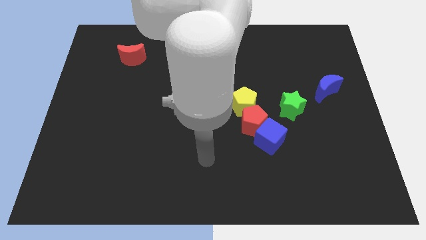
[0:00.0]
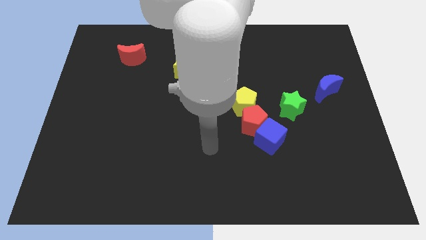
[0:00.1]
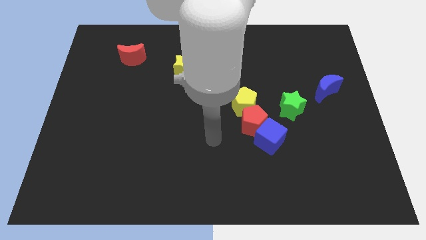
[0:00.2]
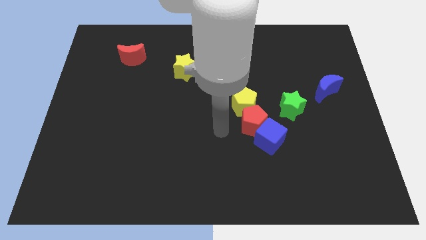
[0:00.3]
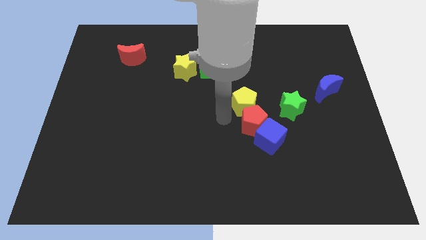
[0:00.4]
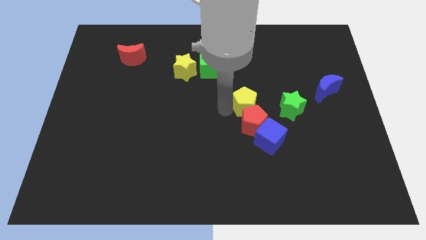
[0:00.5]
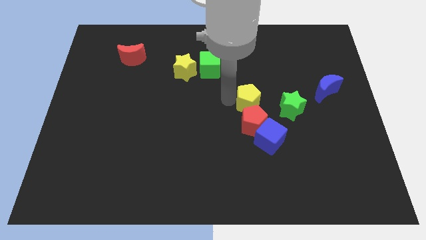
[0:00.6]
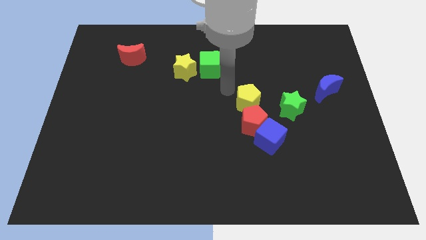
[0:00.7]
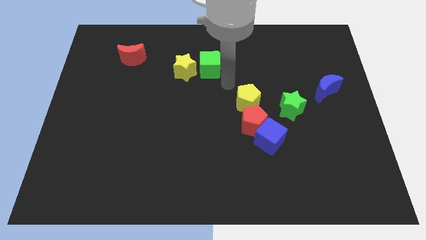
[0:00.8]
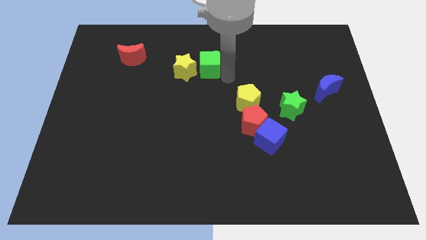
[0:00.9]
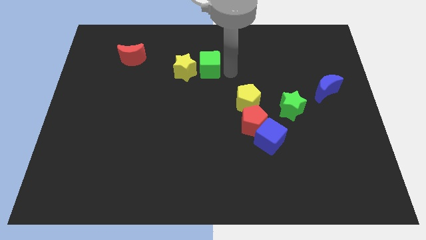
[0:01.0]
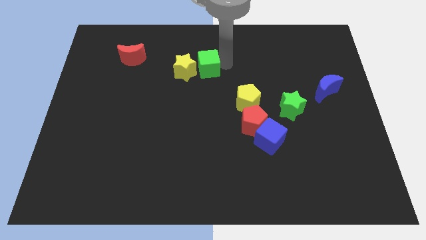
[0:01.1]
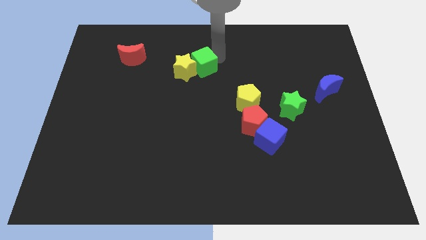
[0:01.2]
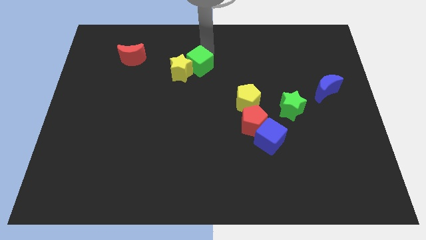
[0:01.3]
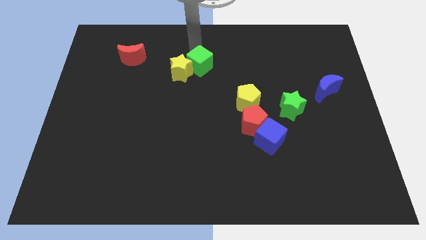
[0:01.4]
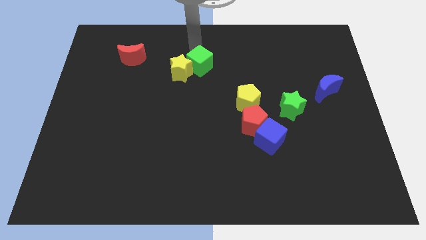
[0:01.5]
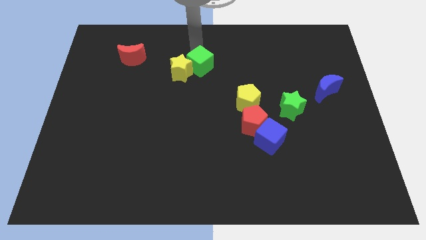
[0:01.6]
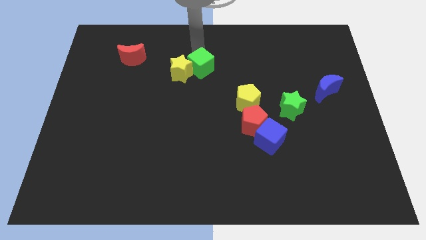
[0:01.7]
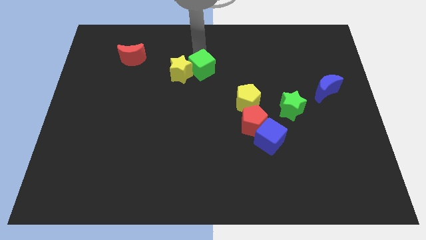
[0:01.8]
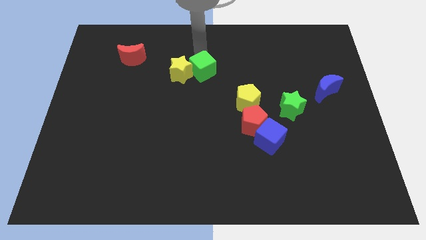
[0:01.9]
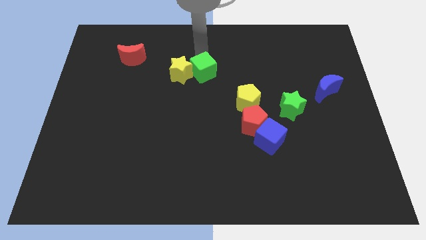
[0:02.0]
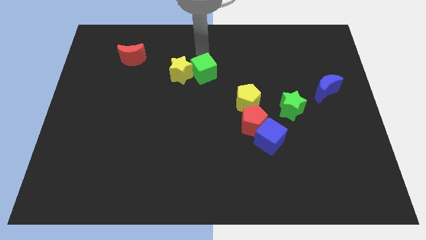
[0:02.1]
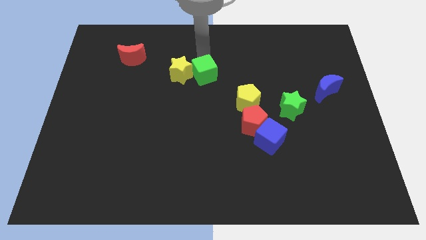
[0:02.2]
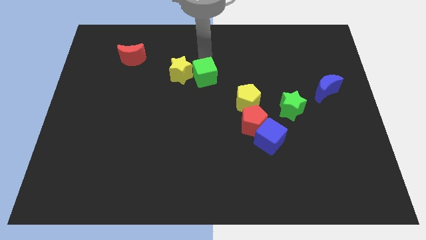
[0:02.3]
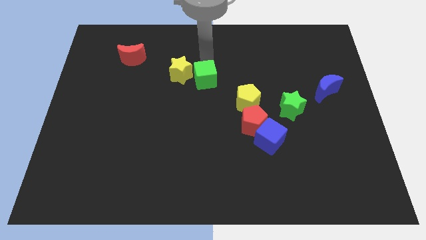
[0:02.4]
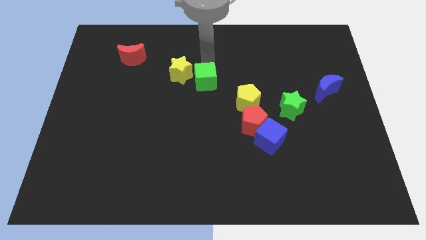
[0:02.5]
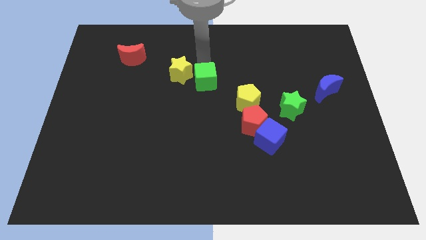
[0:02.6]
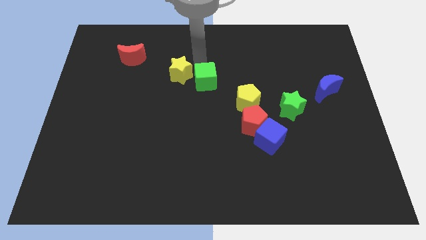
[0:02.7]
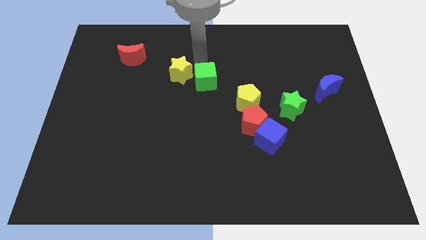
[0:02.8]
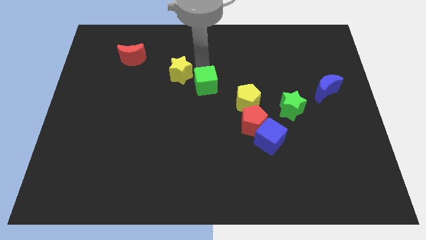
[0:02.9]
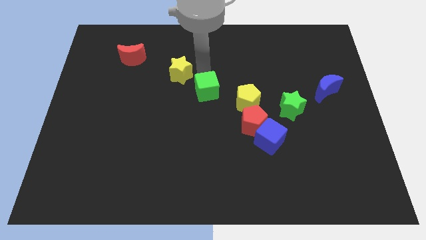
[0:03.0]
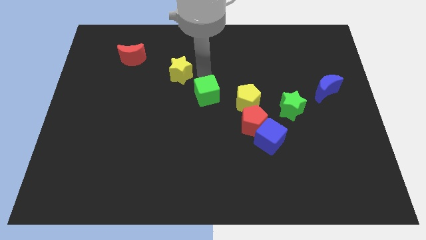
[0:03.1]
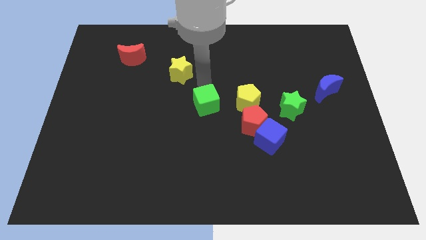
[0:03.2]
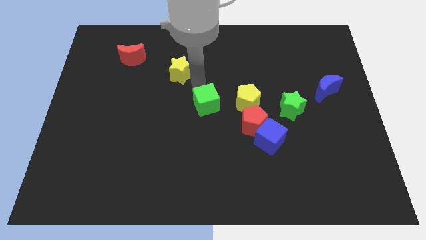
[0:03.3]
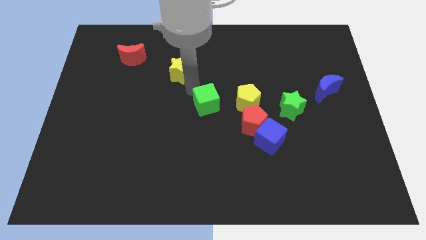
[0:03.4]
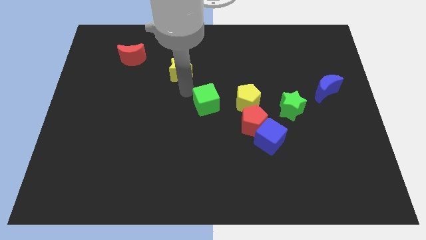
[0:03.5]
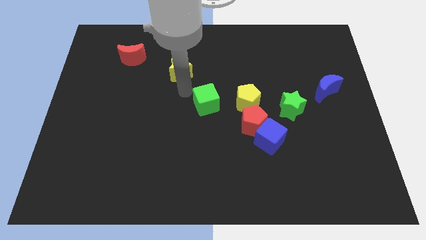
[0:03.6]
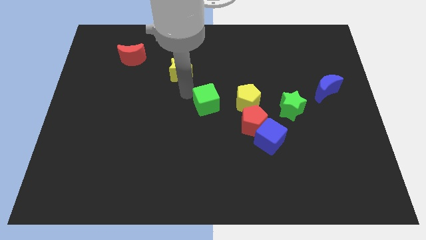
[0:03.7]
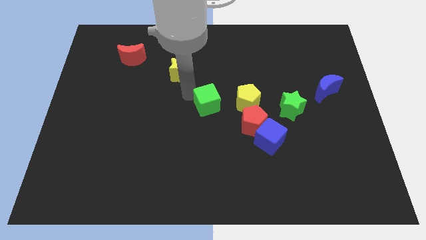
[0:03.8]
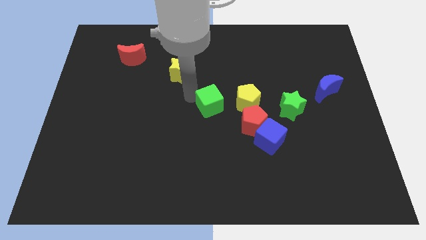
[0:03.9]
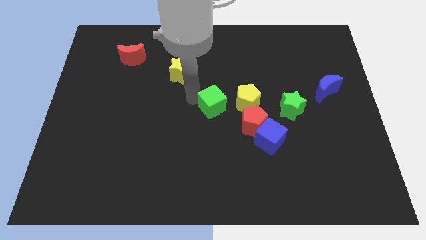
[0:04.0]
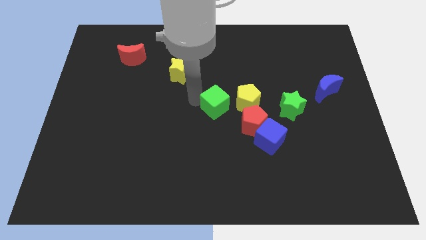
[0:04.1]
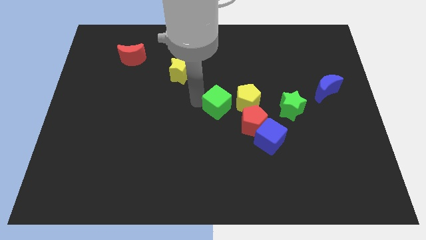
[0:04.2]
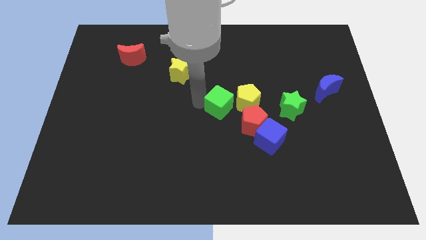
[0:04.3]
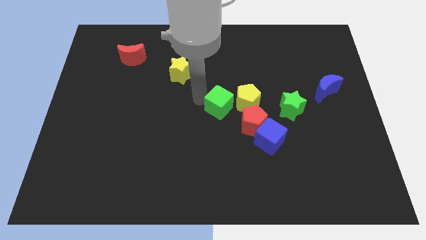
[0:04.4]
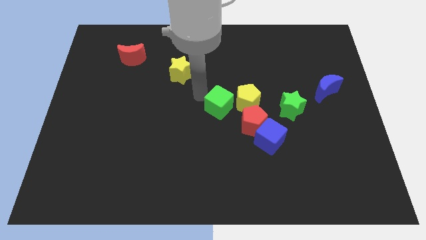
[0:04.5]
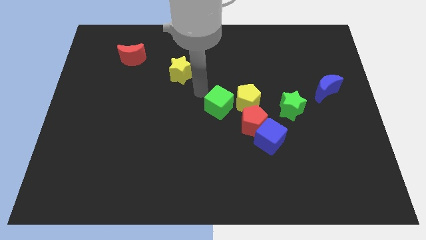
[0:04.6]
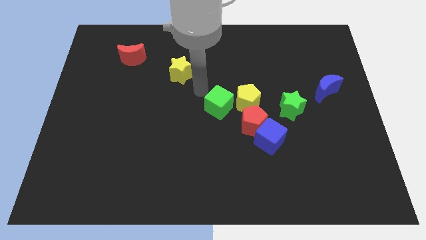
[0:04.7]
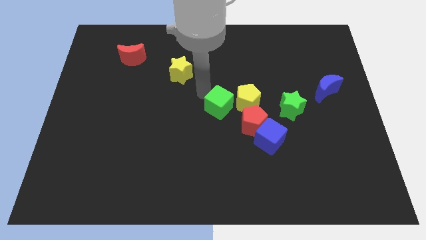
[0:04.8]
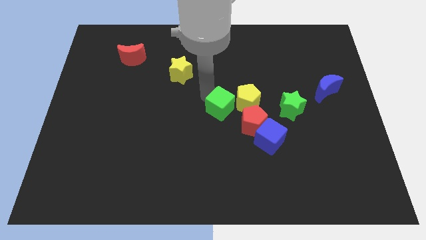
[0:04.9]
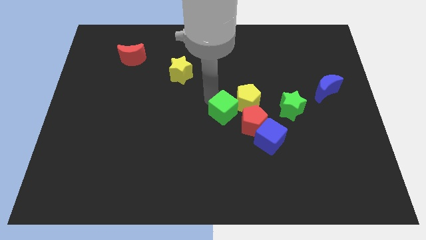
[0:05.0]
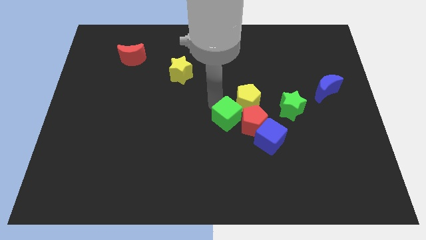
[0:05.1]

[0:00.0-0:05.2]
slide the green cube next to the red pentagon

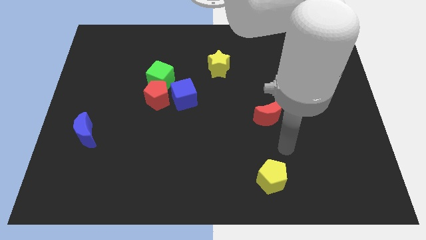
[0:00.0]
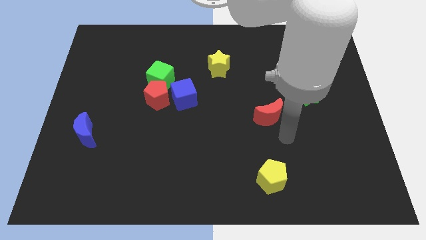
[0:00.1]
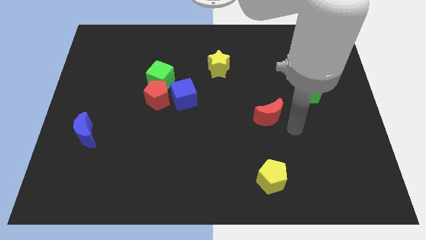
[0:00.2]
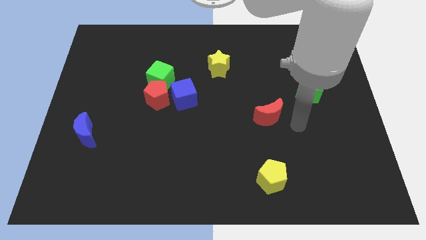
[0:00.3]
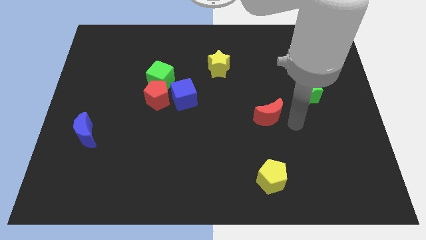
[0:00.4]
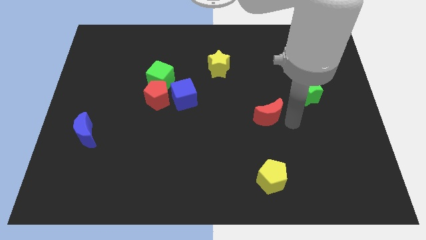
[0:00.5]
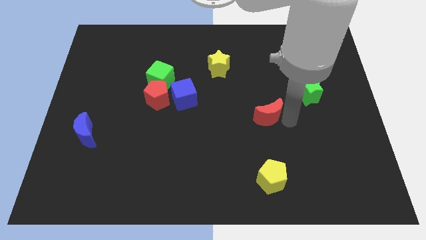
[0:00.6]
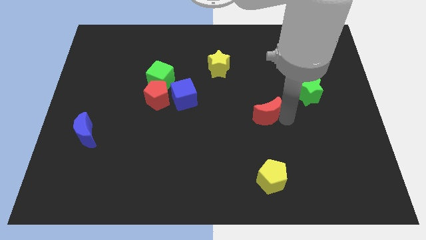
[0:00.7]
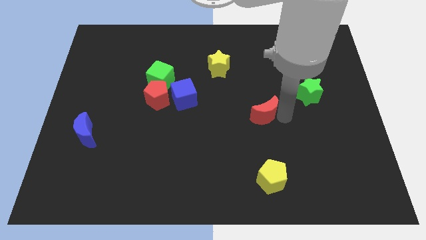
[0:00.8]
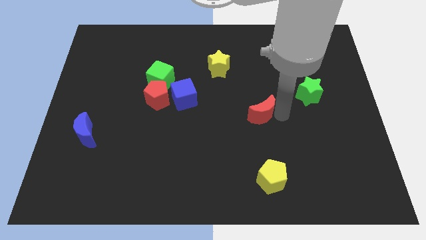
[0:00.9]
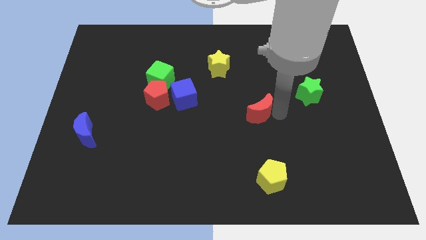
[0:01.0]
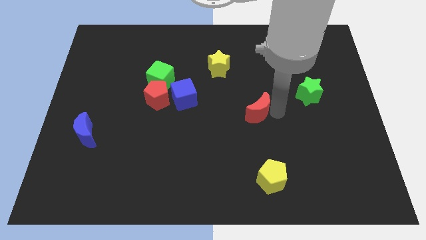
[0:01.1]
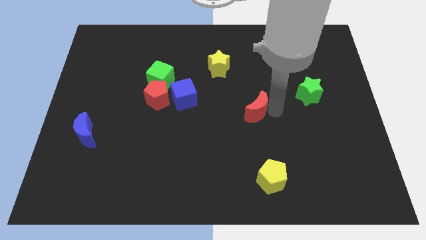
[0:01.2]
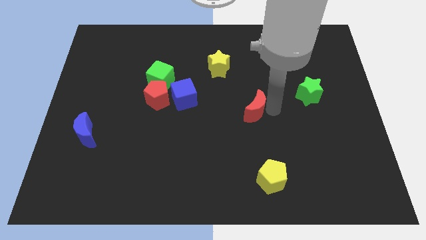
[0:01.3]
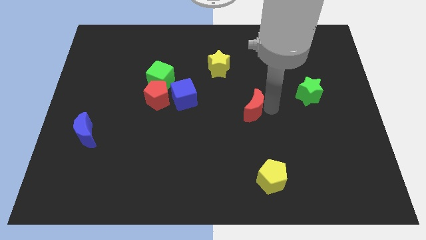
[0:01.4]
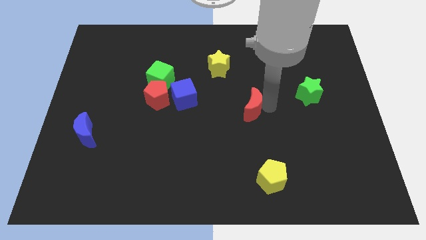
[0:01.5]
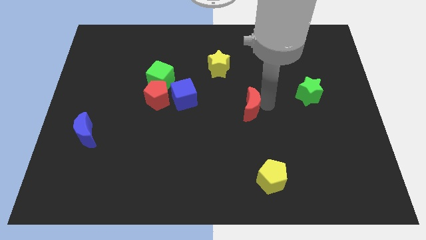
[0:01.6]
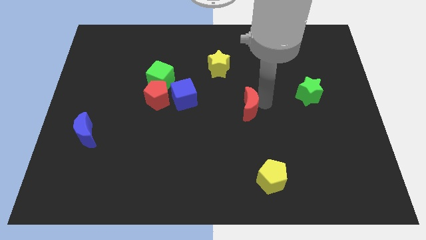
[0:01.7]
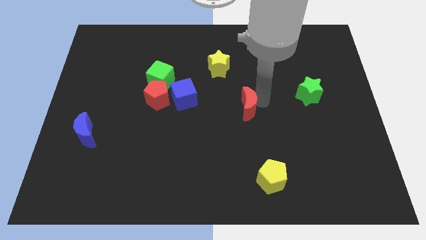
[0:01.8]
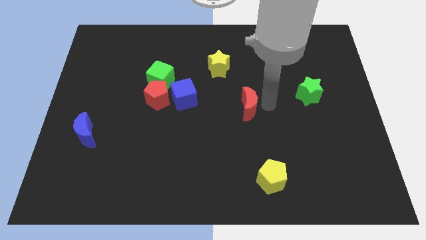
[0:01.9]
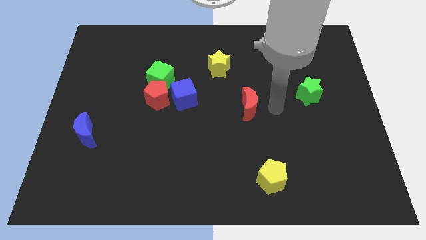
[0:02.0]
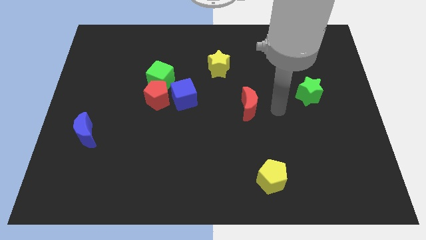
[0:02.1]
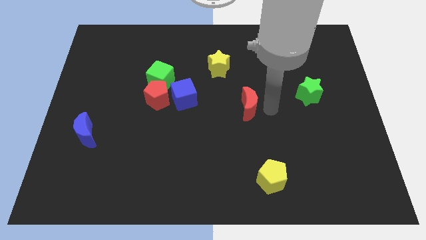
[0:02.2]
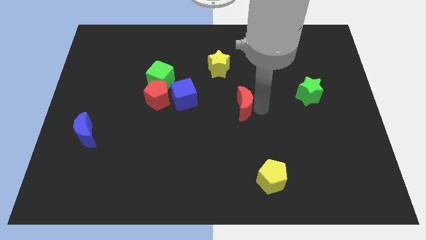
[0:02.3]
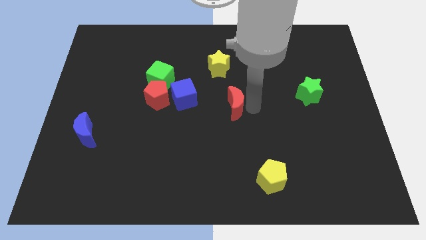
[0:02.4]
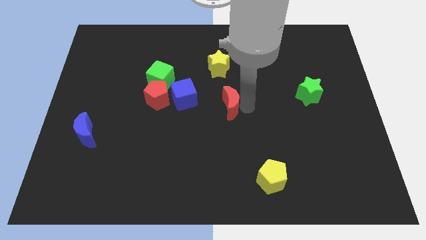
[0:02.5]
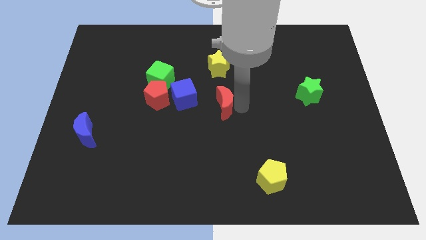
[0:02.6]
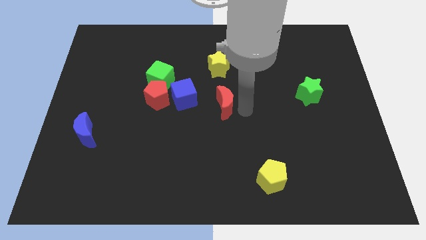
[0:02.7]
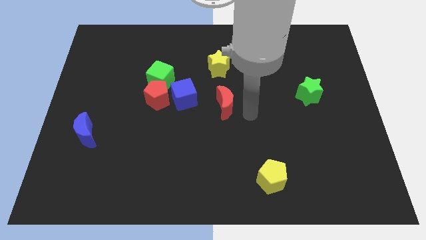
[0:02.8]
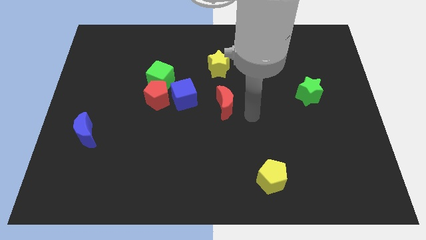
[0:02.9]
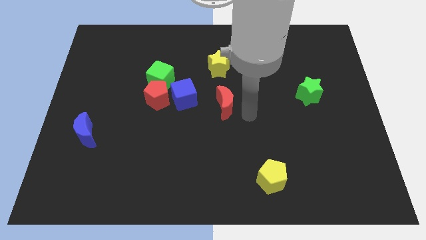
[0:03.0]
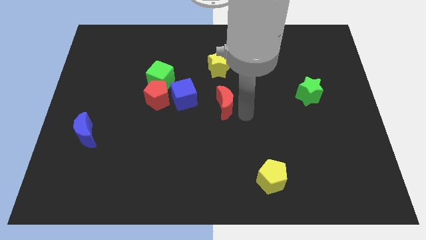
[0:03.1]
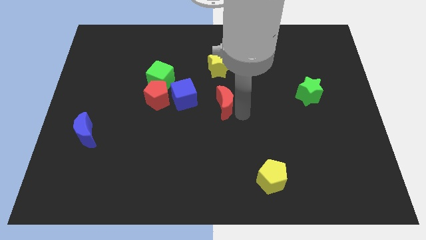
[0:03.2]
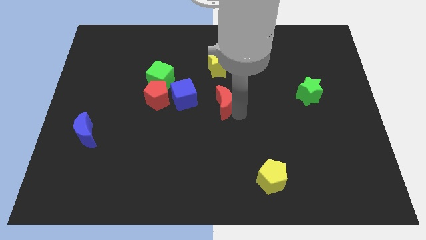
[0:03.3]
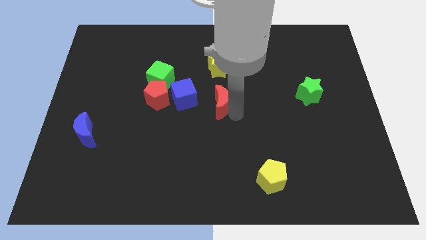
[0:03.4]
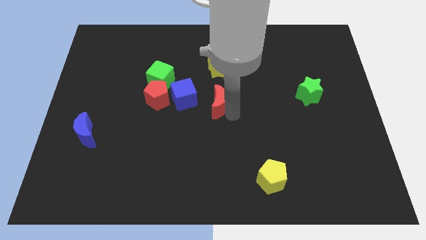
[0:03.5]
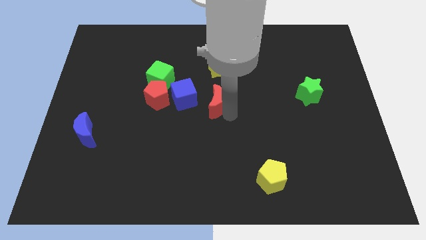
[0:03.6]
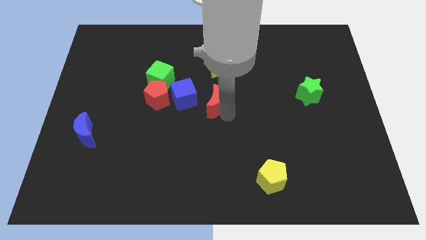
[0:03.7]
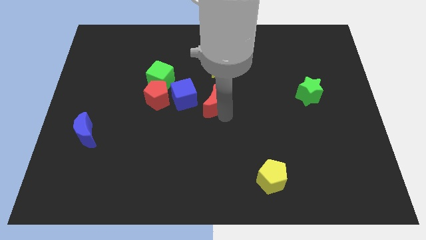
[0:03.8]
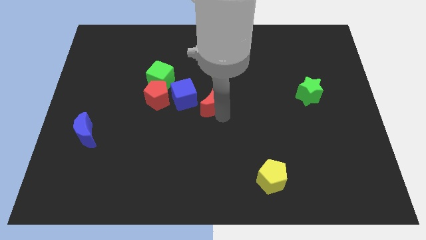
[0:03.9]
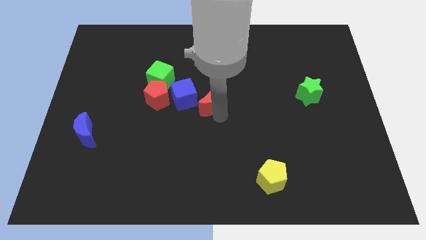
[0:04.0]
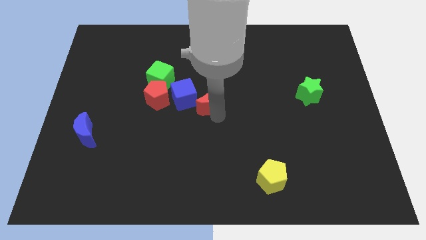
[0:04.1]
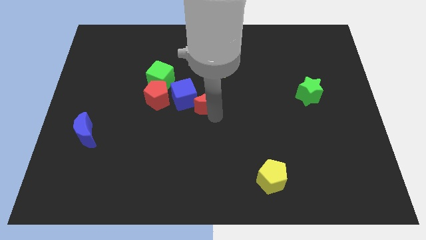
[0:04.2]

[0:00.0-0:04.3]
move the red moon to the blue cube
